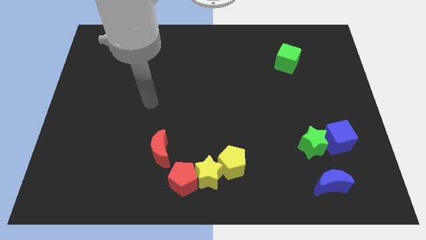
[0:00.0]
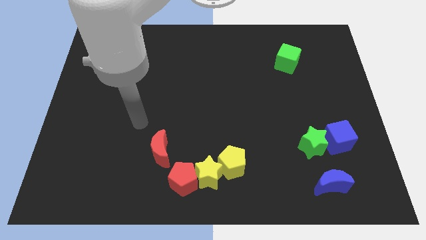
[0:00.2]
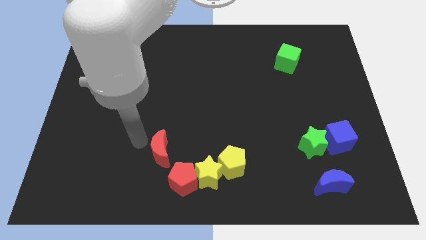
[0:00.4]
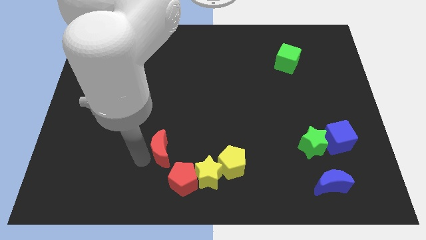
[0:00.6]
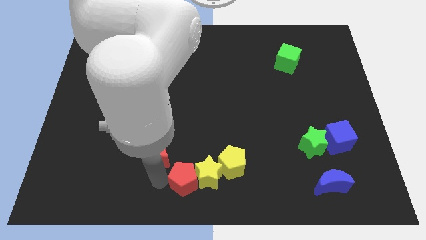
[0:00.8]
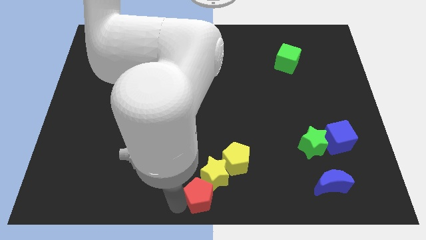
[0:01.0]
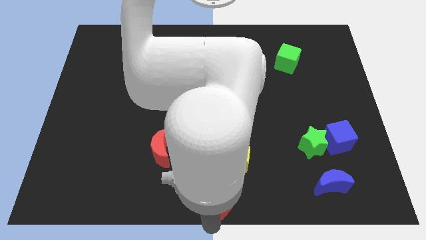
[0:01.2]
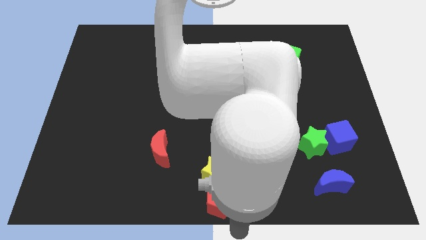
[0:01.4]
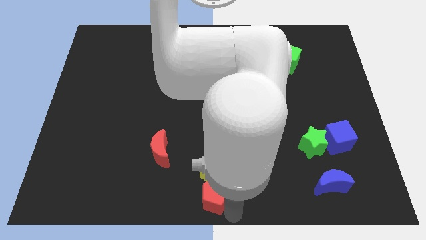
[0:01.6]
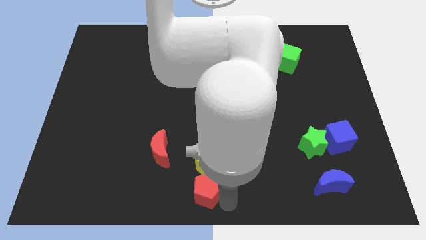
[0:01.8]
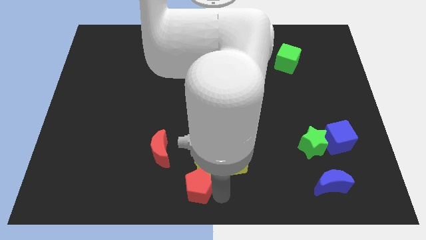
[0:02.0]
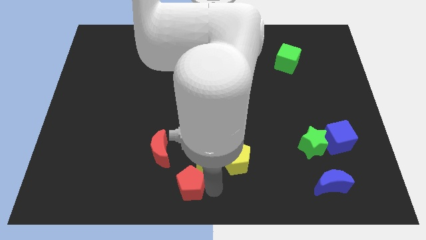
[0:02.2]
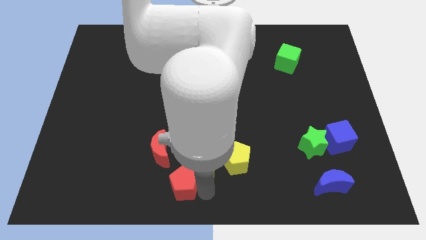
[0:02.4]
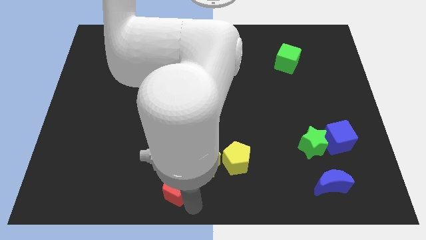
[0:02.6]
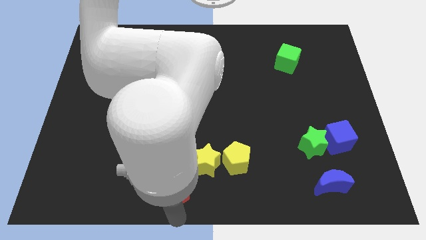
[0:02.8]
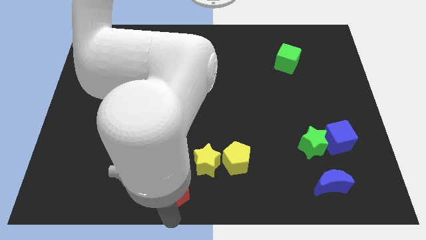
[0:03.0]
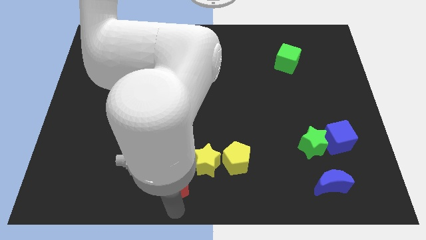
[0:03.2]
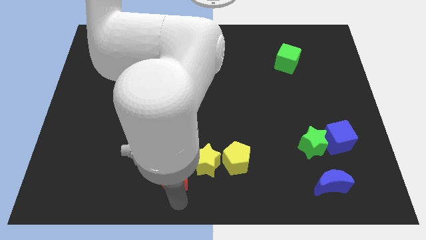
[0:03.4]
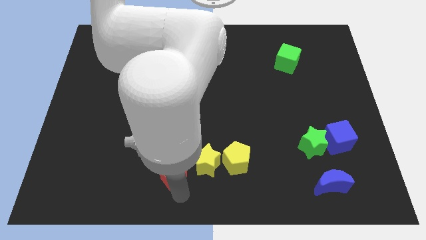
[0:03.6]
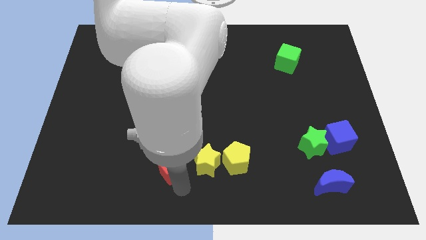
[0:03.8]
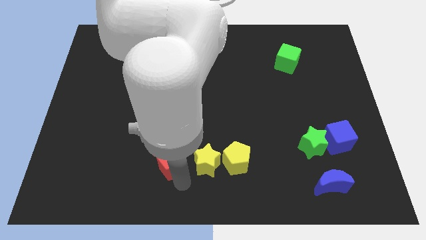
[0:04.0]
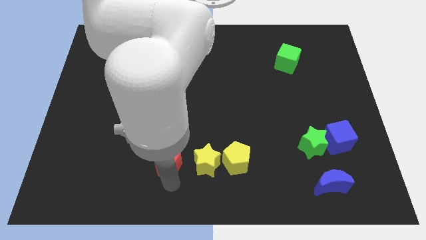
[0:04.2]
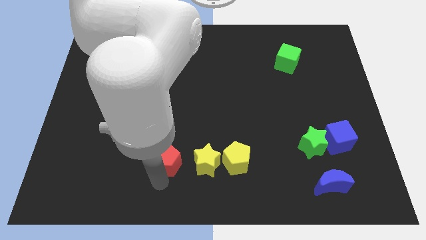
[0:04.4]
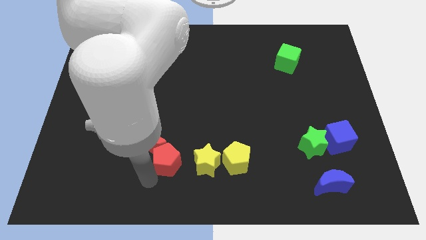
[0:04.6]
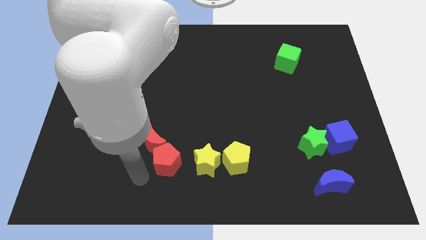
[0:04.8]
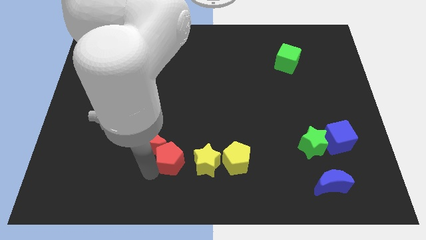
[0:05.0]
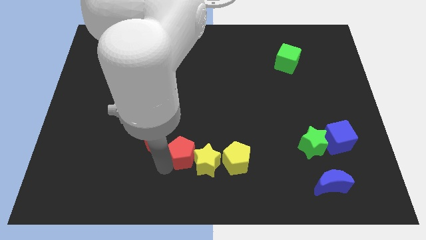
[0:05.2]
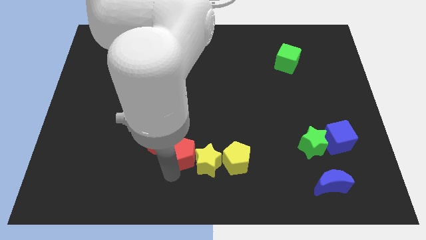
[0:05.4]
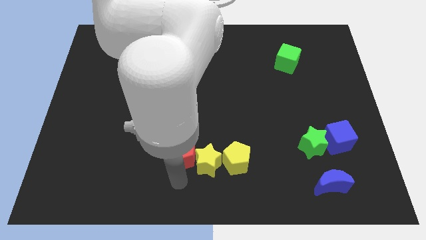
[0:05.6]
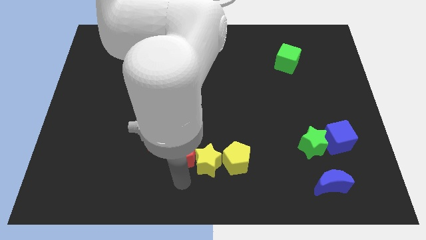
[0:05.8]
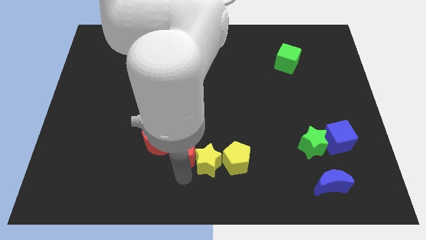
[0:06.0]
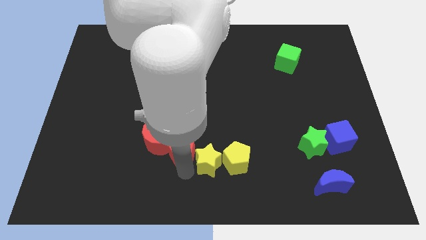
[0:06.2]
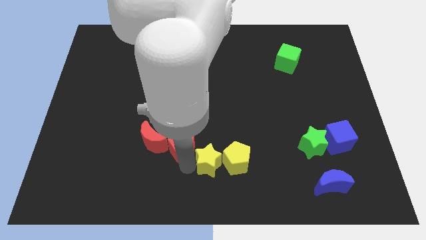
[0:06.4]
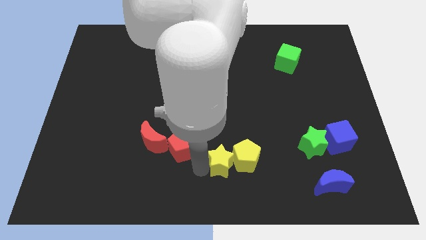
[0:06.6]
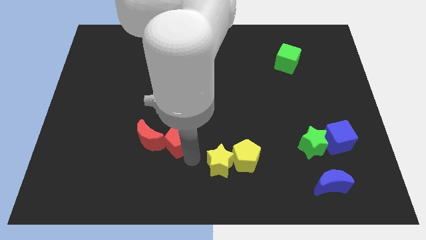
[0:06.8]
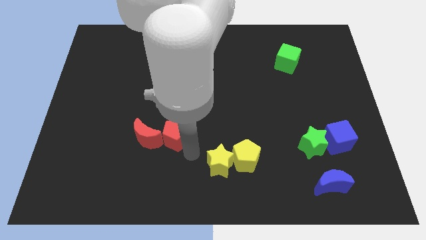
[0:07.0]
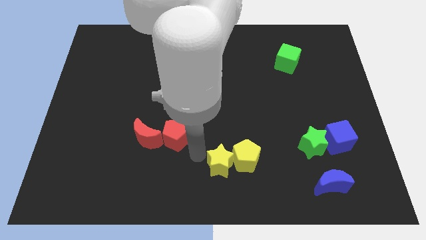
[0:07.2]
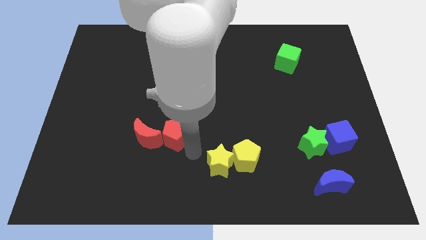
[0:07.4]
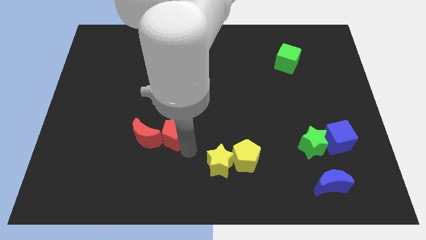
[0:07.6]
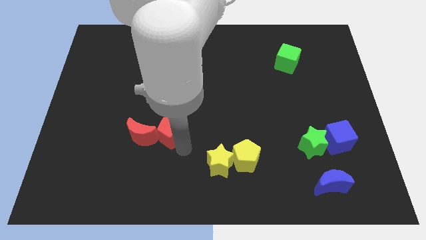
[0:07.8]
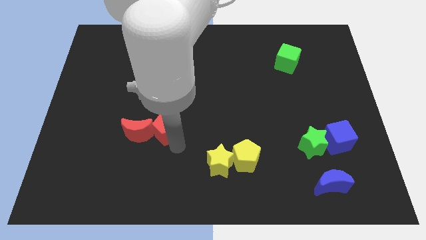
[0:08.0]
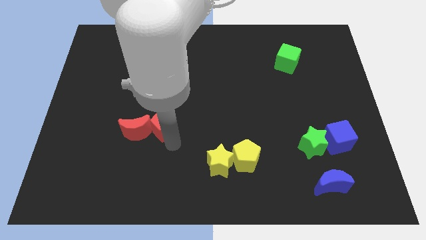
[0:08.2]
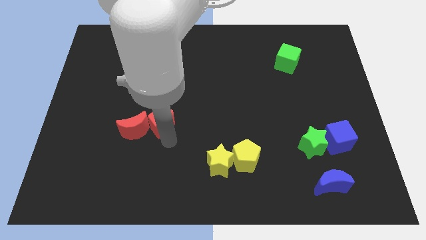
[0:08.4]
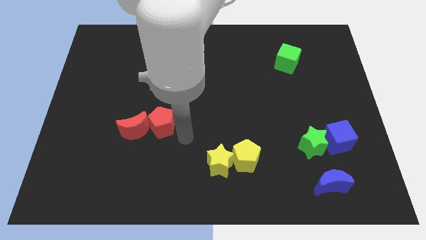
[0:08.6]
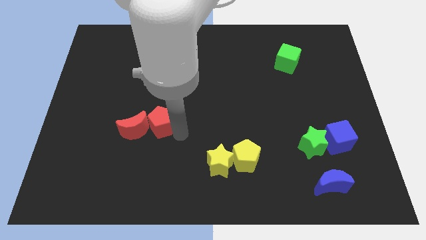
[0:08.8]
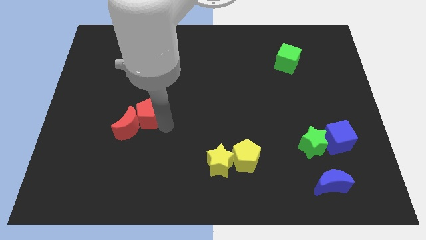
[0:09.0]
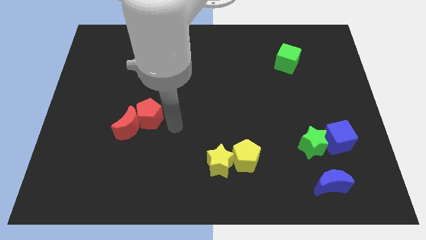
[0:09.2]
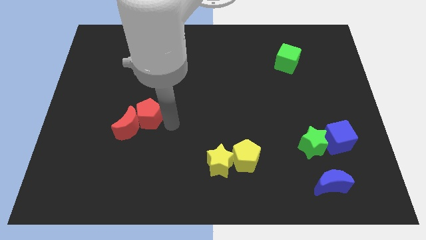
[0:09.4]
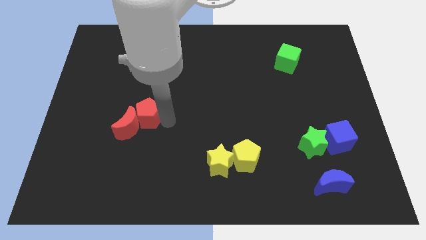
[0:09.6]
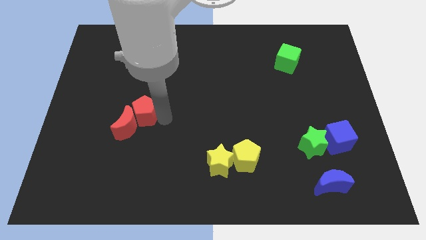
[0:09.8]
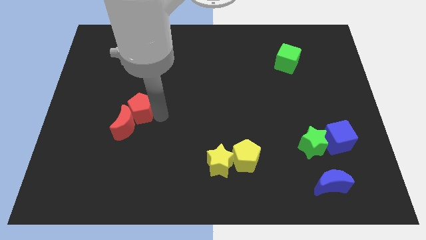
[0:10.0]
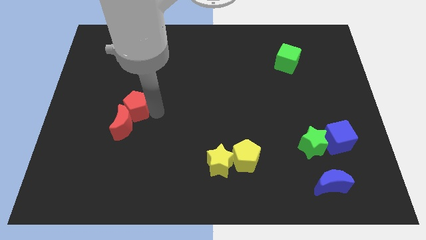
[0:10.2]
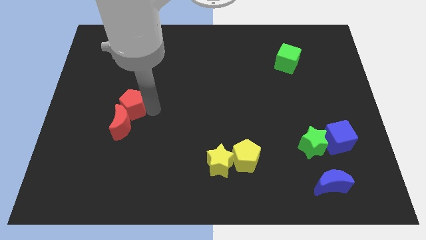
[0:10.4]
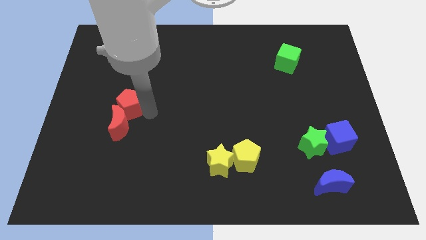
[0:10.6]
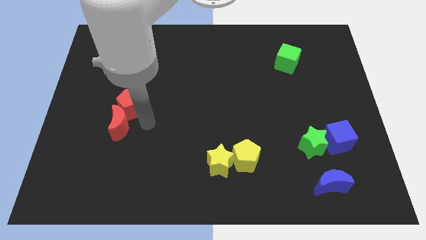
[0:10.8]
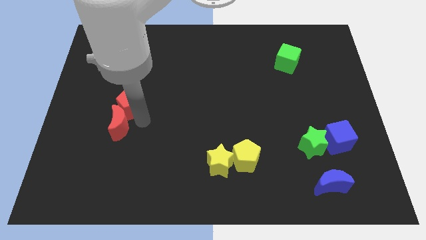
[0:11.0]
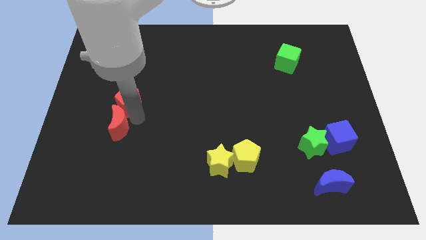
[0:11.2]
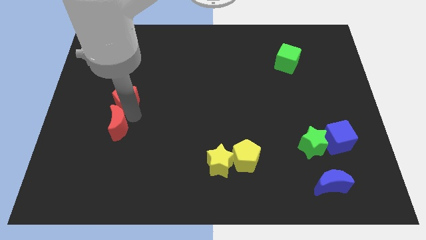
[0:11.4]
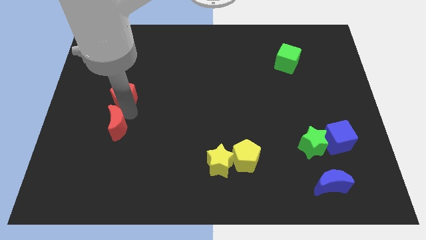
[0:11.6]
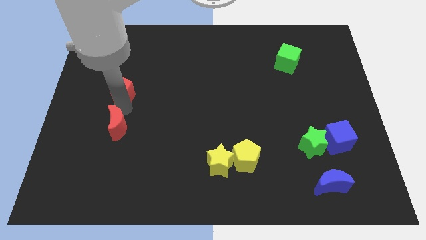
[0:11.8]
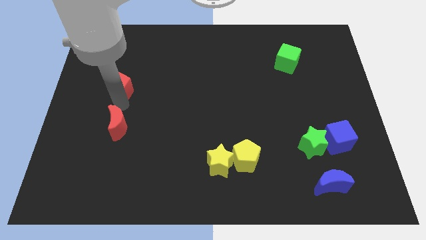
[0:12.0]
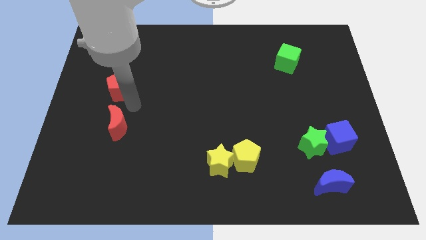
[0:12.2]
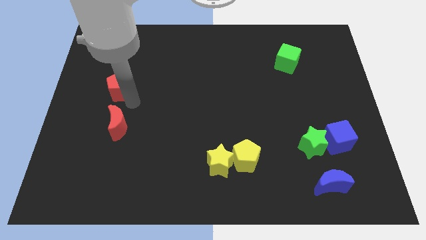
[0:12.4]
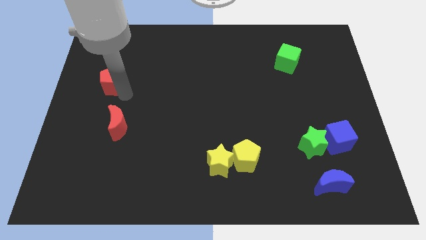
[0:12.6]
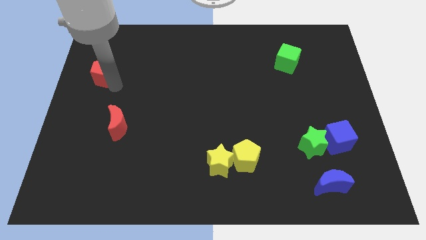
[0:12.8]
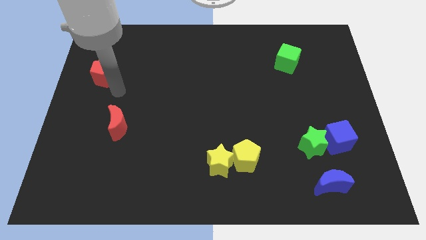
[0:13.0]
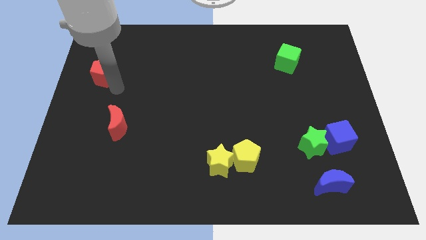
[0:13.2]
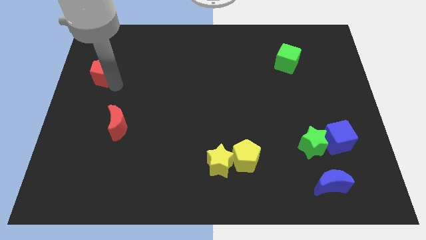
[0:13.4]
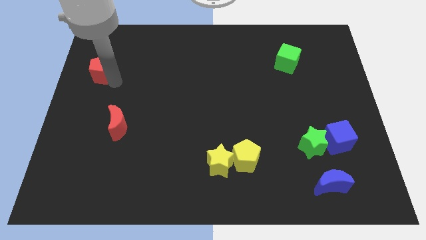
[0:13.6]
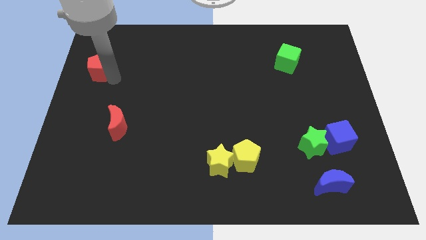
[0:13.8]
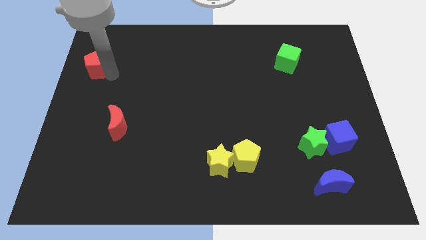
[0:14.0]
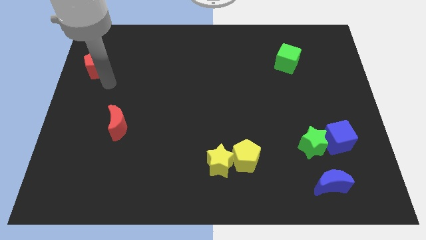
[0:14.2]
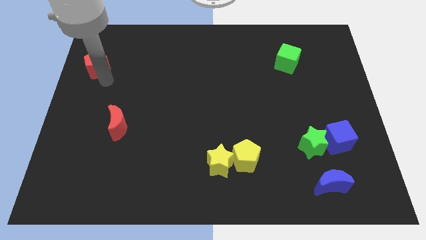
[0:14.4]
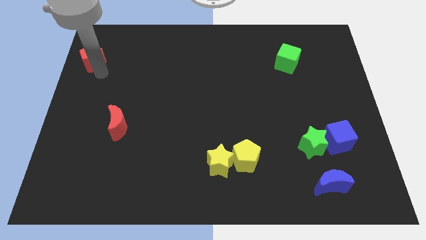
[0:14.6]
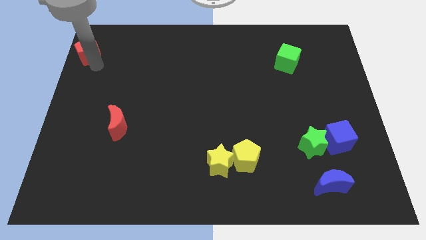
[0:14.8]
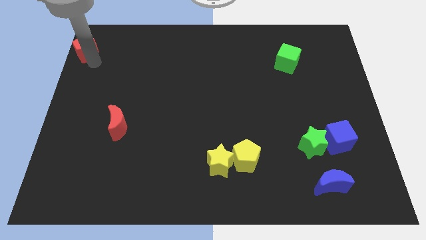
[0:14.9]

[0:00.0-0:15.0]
put the red pentagon to the top left
